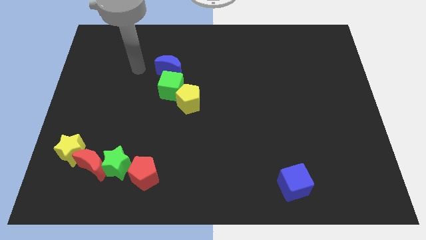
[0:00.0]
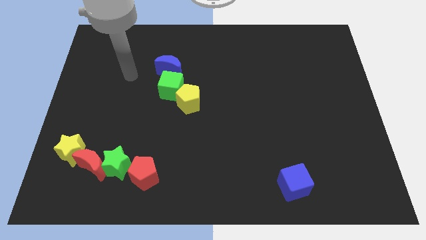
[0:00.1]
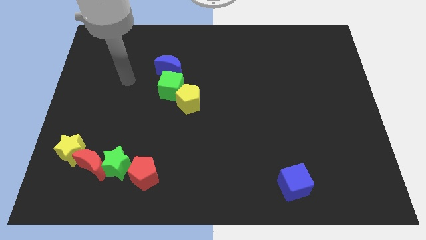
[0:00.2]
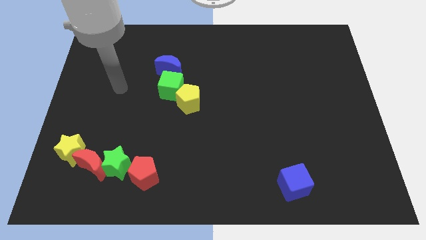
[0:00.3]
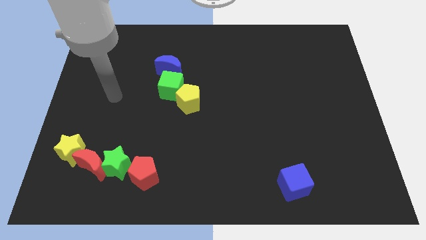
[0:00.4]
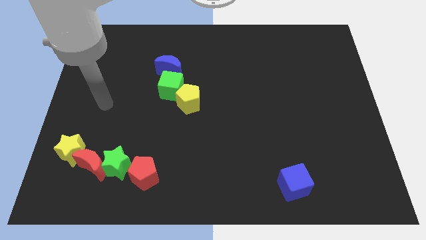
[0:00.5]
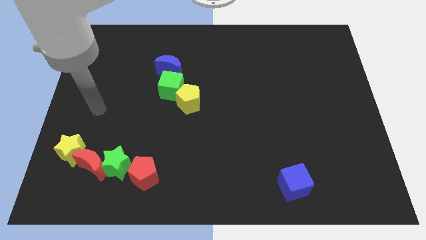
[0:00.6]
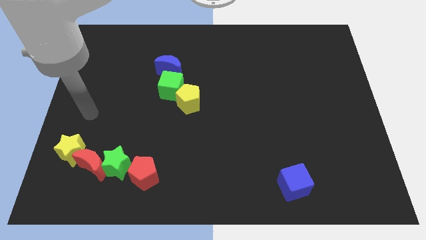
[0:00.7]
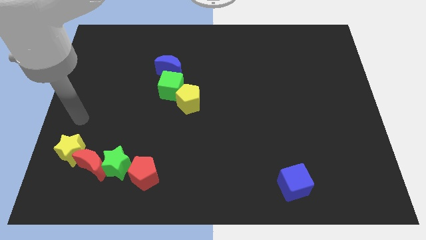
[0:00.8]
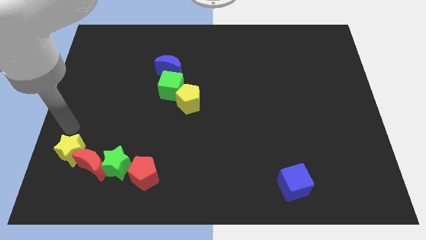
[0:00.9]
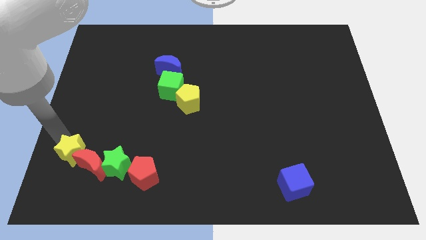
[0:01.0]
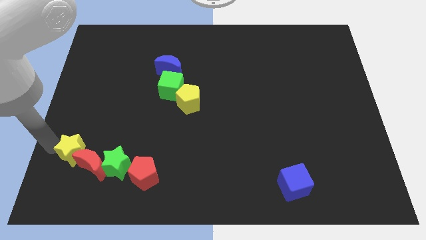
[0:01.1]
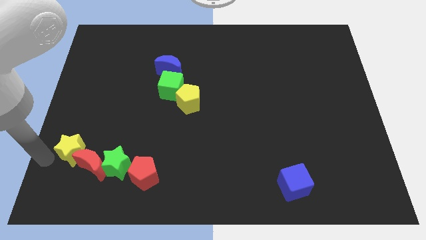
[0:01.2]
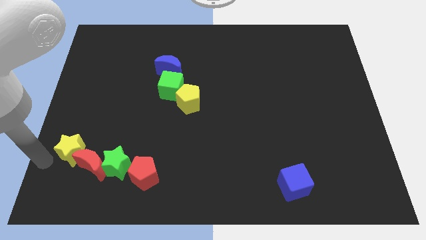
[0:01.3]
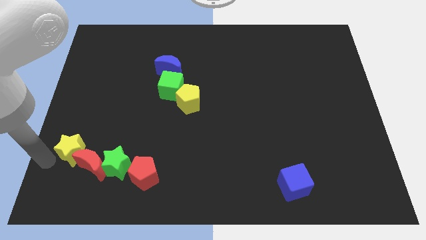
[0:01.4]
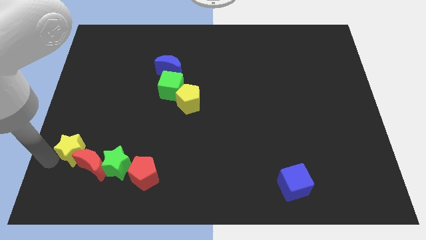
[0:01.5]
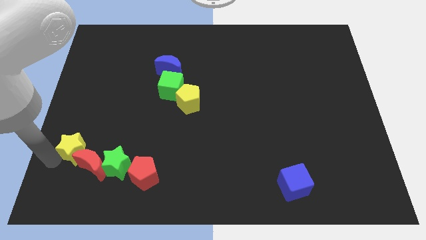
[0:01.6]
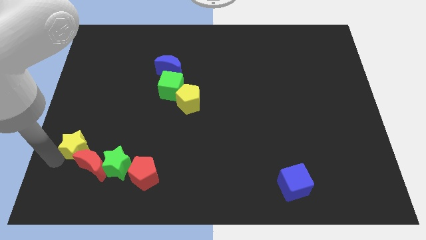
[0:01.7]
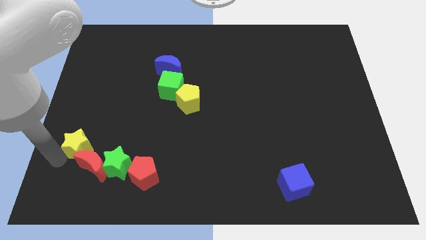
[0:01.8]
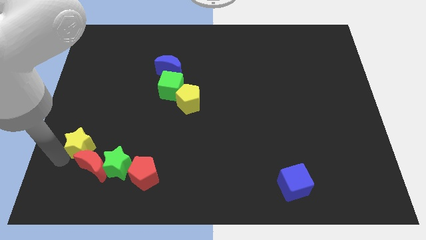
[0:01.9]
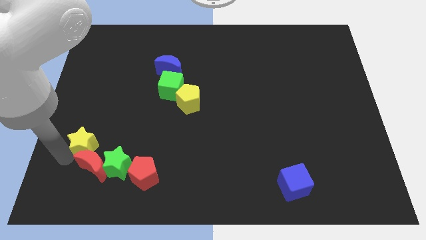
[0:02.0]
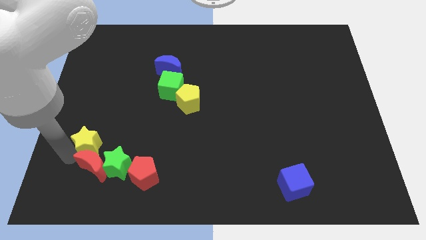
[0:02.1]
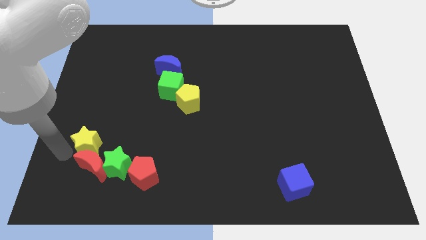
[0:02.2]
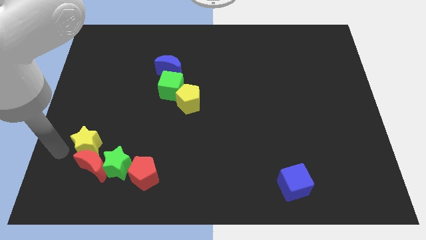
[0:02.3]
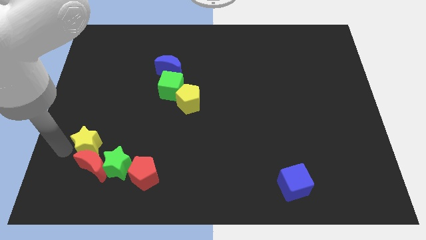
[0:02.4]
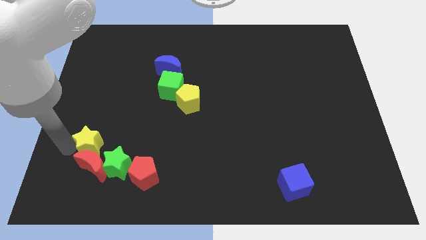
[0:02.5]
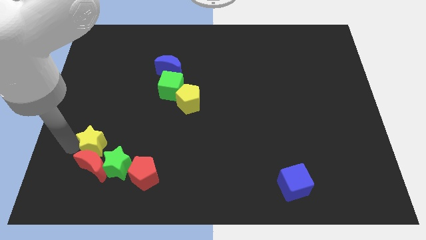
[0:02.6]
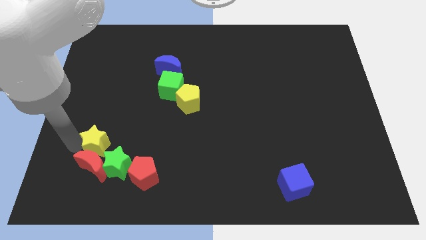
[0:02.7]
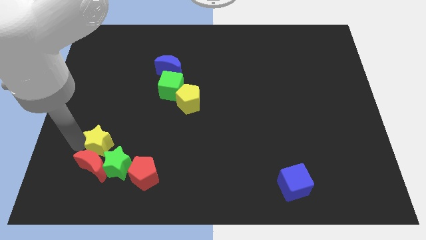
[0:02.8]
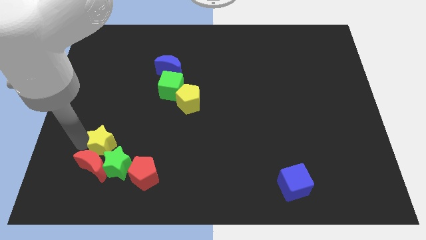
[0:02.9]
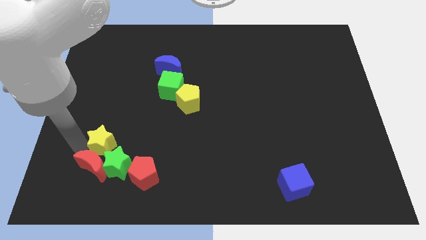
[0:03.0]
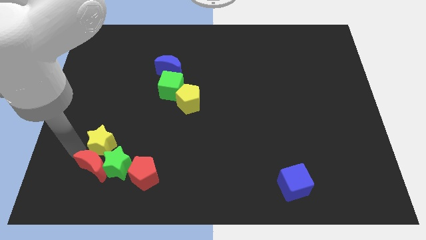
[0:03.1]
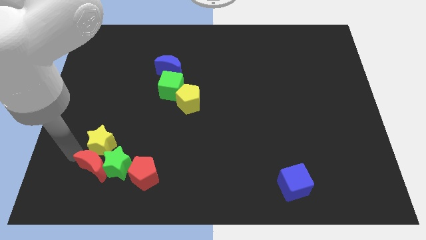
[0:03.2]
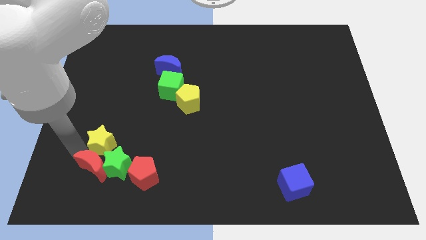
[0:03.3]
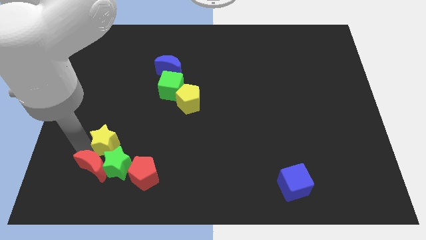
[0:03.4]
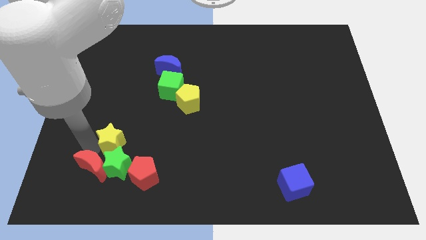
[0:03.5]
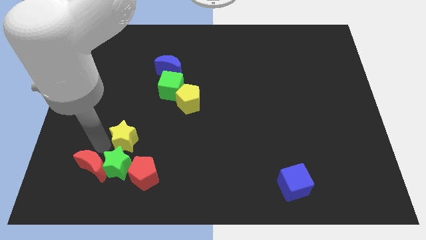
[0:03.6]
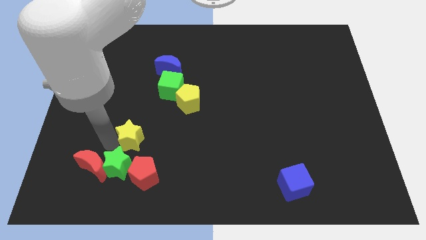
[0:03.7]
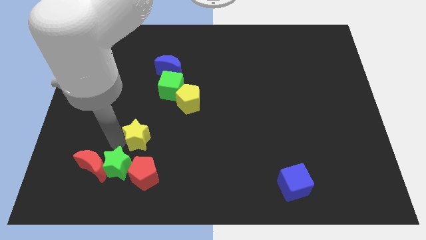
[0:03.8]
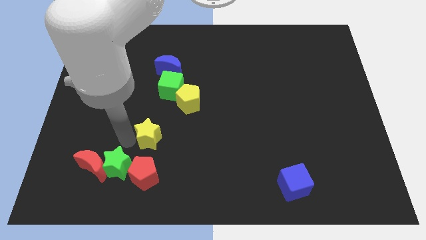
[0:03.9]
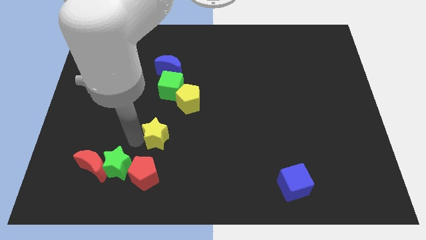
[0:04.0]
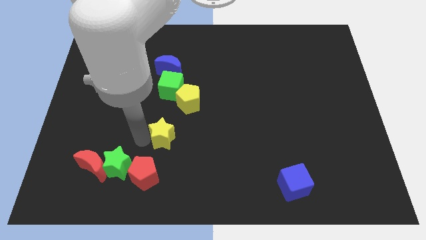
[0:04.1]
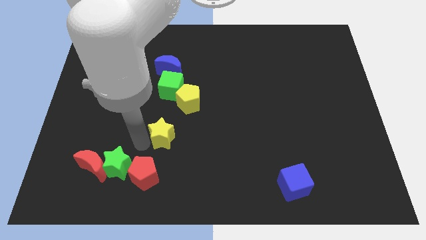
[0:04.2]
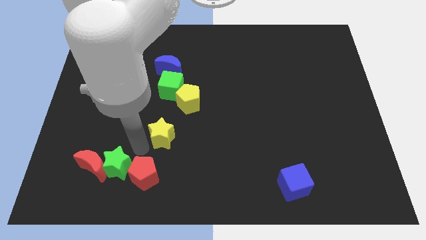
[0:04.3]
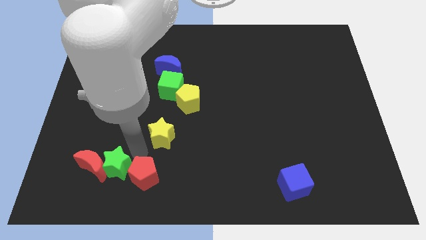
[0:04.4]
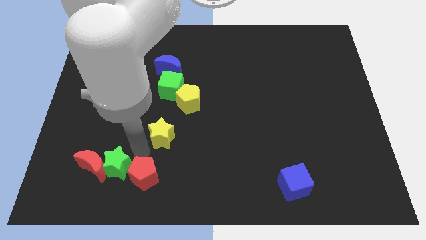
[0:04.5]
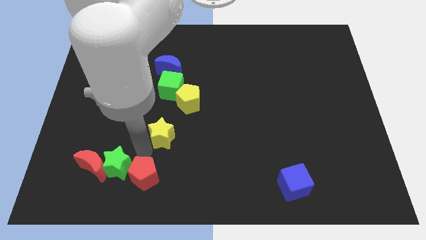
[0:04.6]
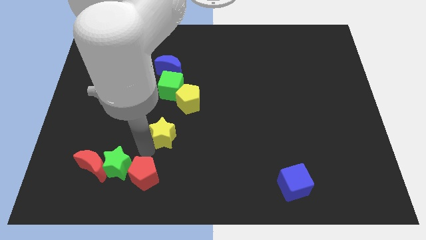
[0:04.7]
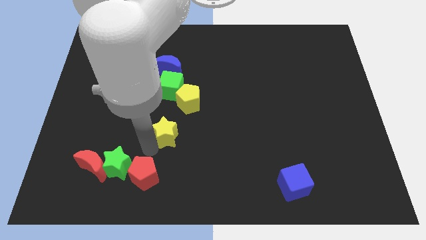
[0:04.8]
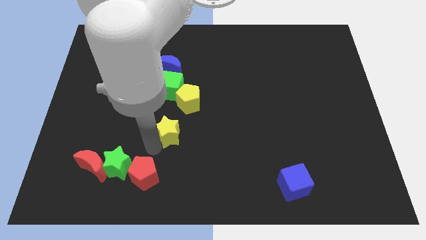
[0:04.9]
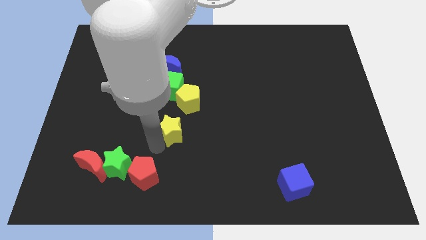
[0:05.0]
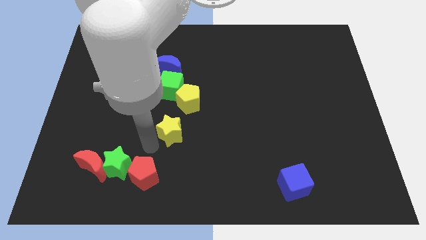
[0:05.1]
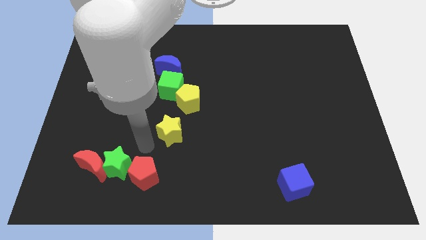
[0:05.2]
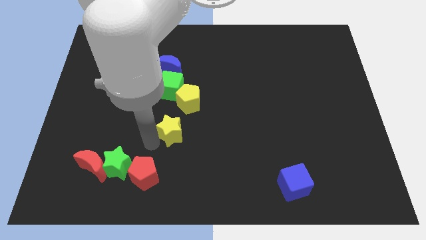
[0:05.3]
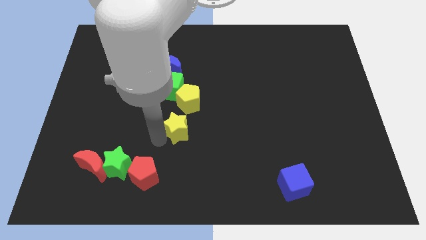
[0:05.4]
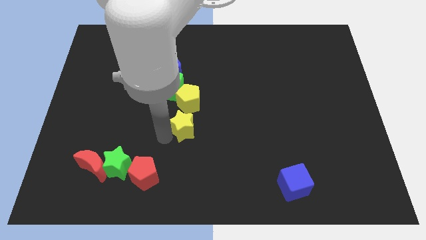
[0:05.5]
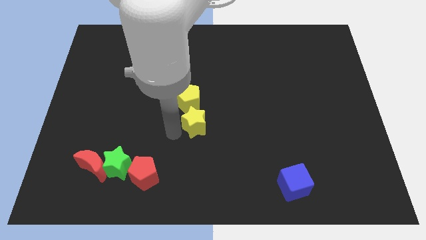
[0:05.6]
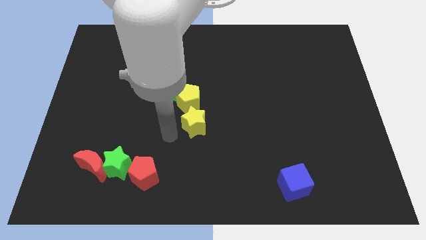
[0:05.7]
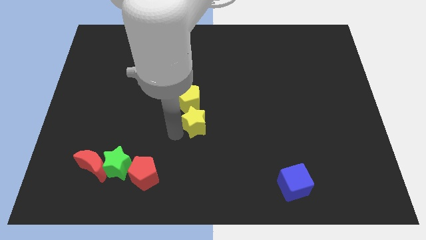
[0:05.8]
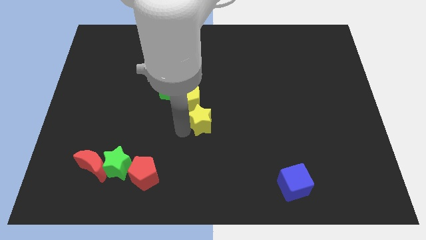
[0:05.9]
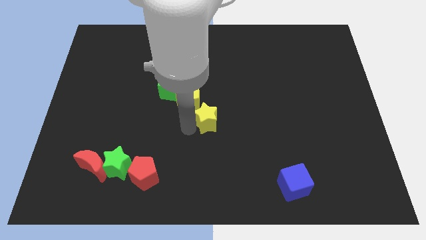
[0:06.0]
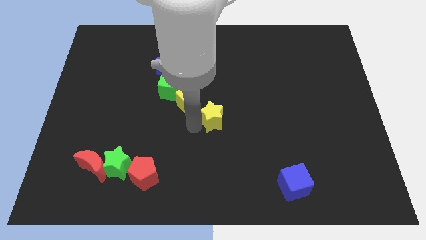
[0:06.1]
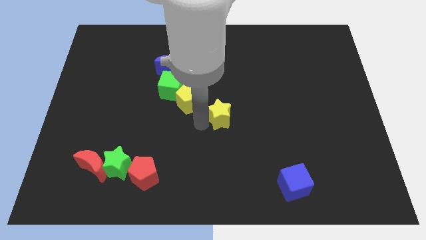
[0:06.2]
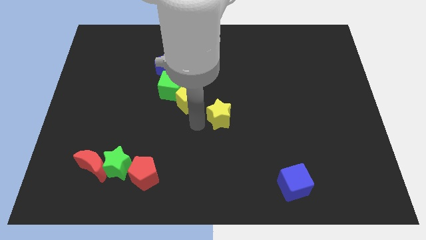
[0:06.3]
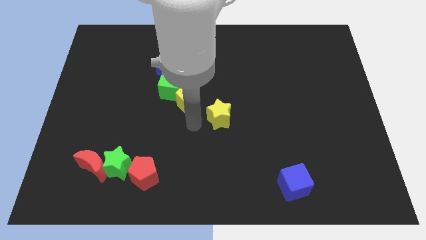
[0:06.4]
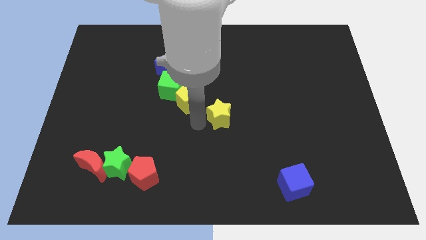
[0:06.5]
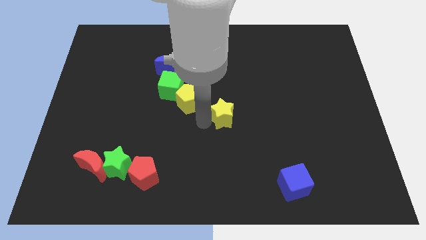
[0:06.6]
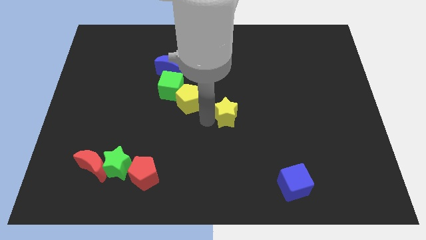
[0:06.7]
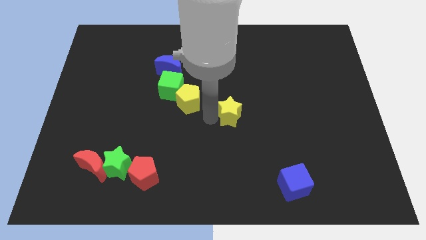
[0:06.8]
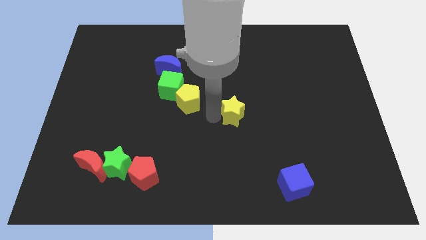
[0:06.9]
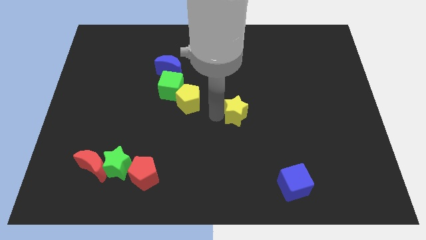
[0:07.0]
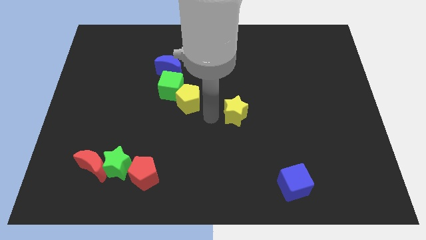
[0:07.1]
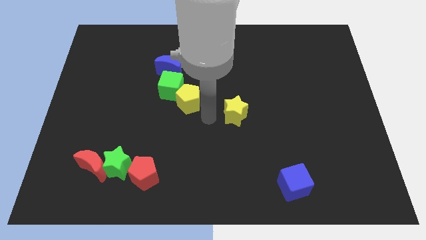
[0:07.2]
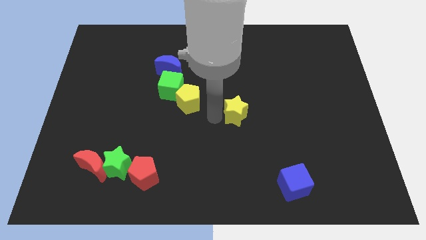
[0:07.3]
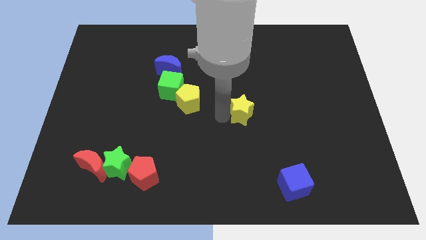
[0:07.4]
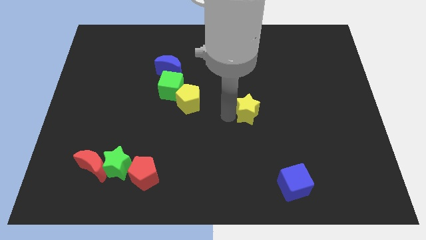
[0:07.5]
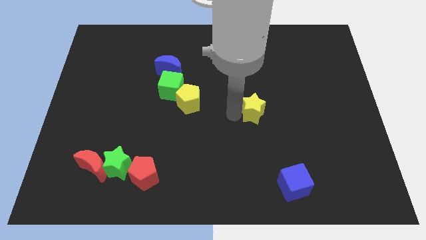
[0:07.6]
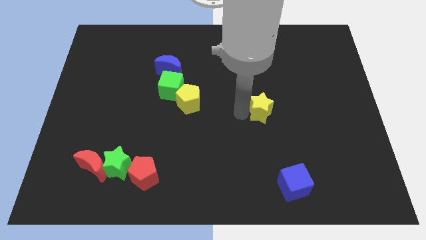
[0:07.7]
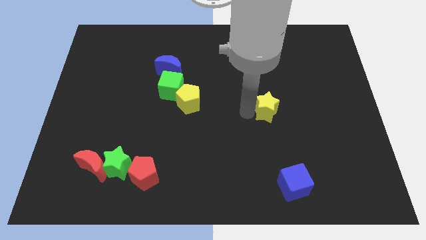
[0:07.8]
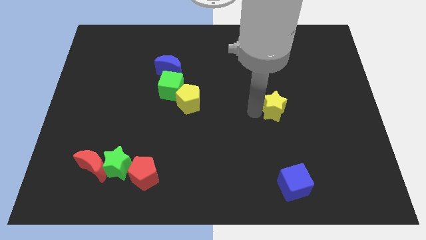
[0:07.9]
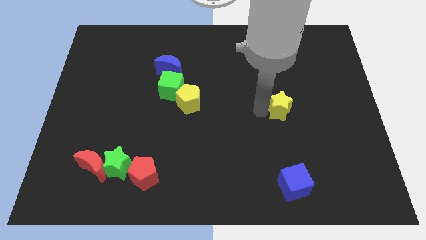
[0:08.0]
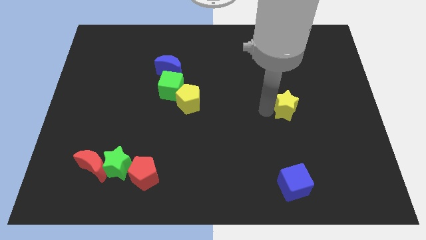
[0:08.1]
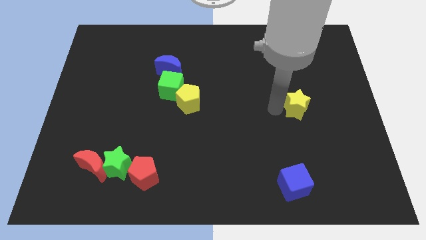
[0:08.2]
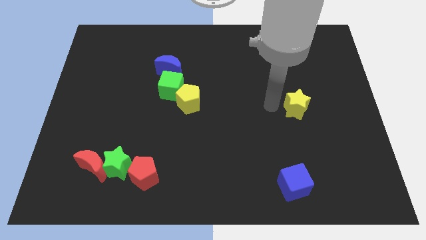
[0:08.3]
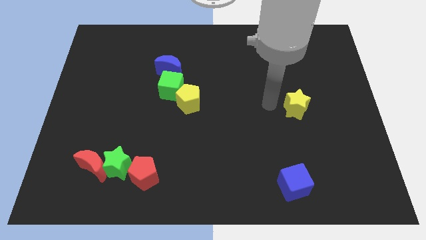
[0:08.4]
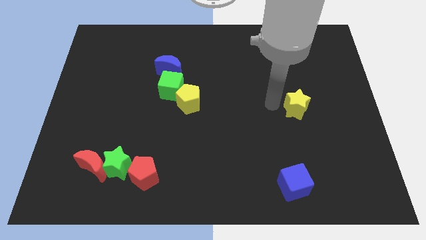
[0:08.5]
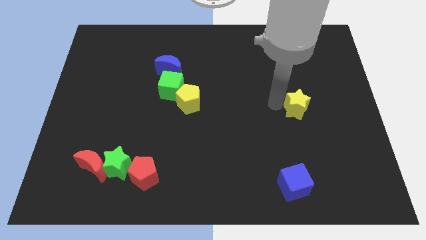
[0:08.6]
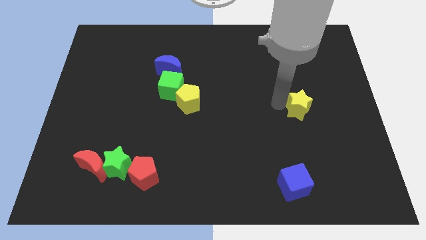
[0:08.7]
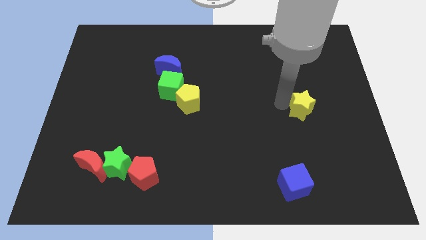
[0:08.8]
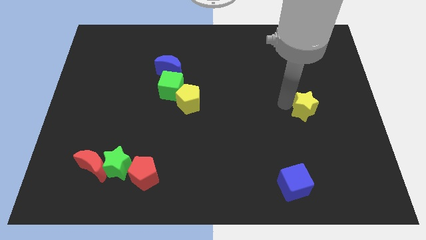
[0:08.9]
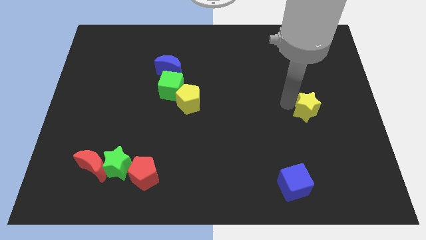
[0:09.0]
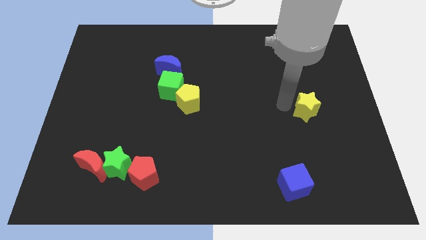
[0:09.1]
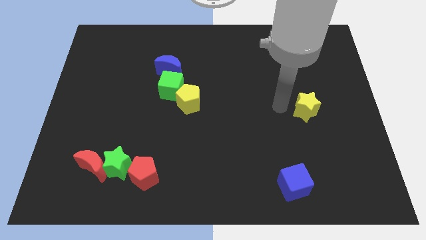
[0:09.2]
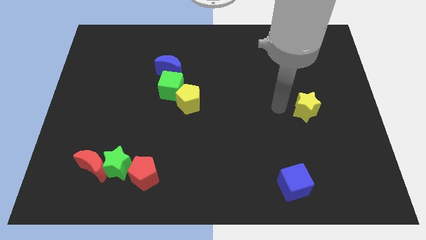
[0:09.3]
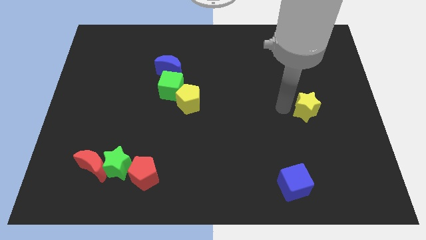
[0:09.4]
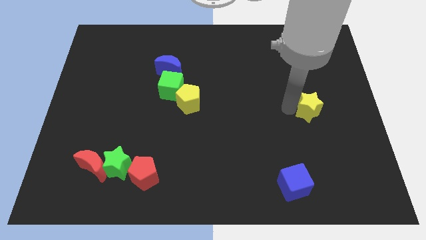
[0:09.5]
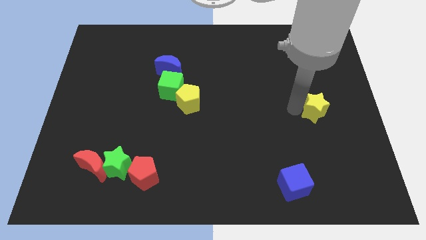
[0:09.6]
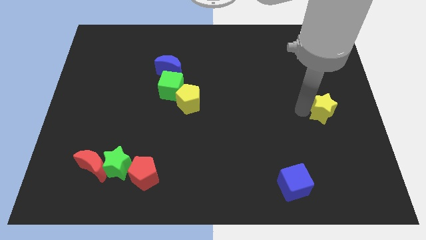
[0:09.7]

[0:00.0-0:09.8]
push the yellow star to the right side
